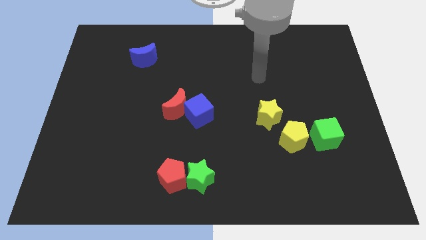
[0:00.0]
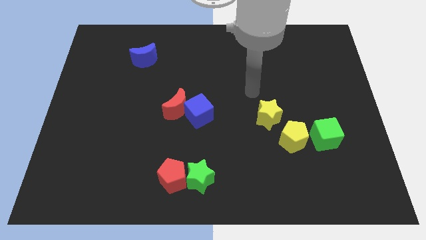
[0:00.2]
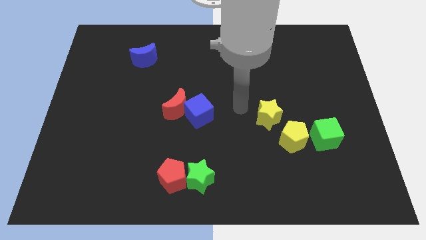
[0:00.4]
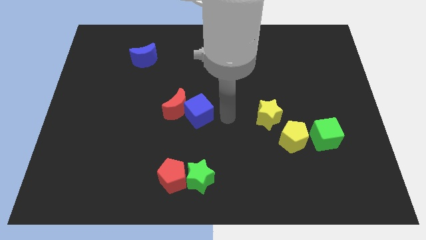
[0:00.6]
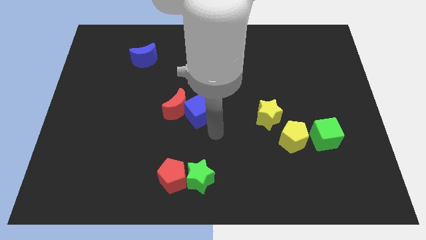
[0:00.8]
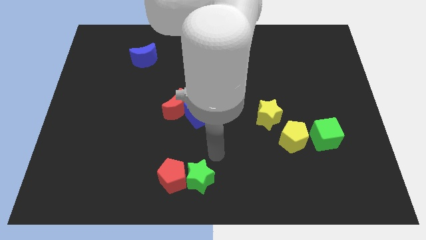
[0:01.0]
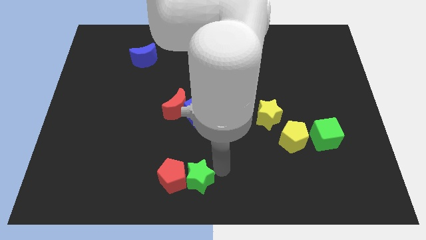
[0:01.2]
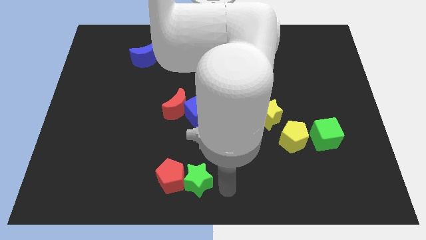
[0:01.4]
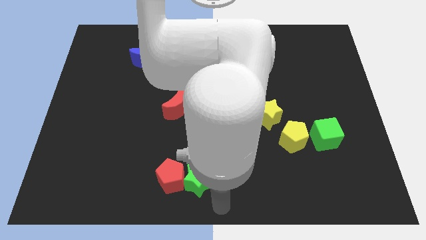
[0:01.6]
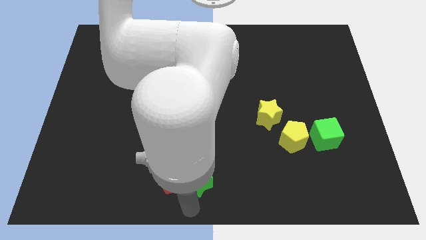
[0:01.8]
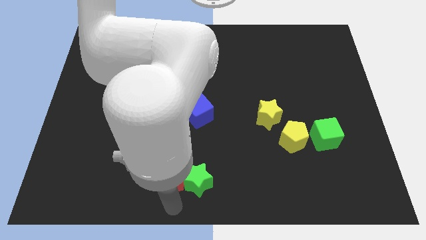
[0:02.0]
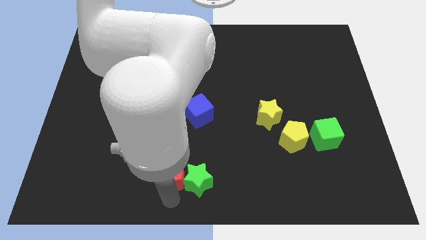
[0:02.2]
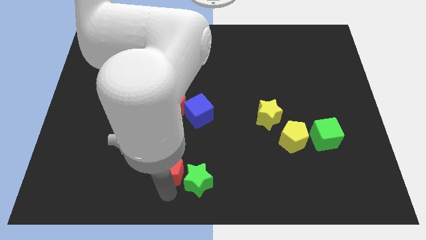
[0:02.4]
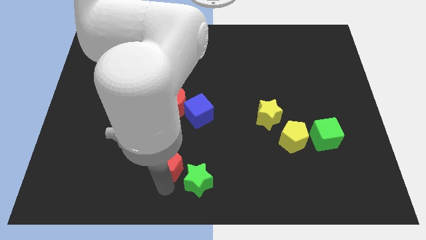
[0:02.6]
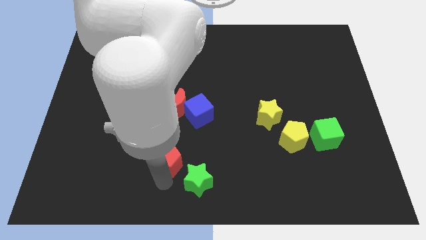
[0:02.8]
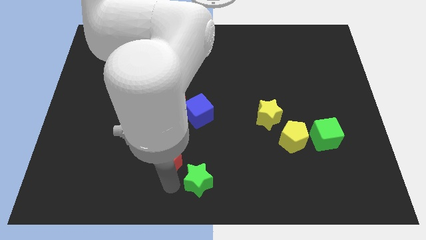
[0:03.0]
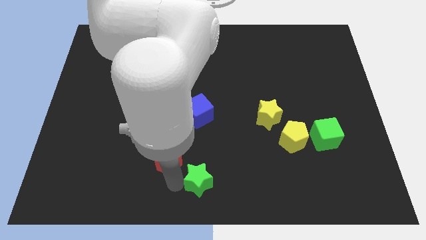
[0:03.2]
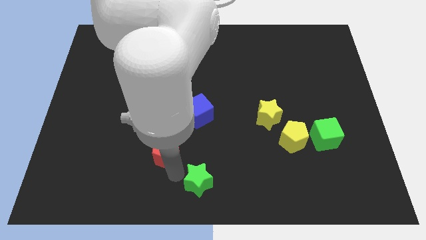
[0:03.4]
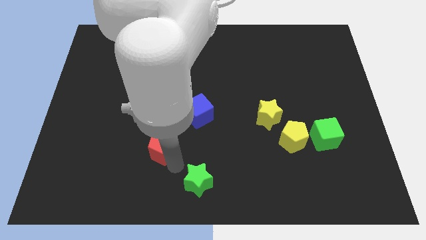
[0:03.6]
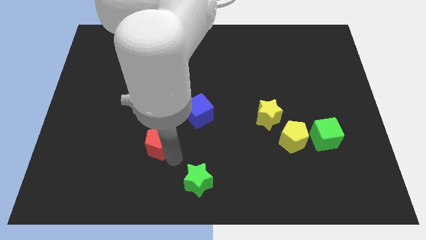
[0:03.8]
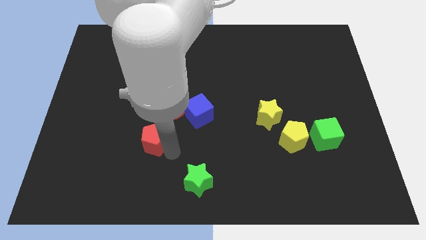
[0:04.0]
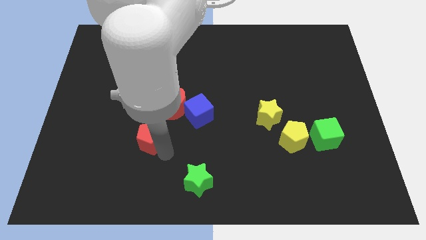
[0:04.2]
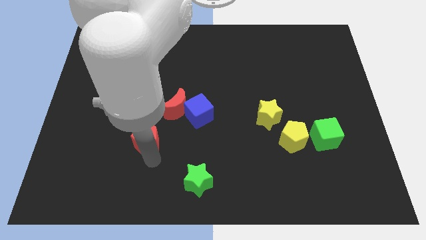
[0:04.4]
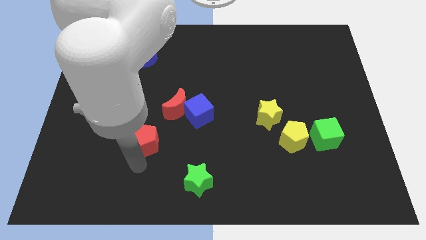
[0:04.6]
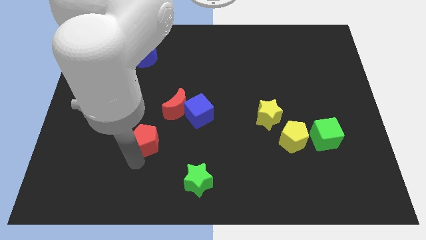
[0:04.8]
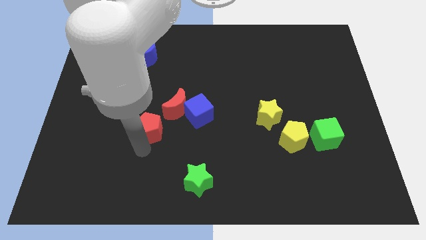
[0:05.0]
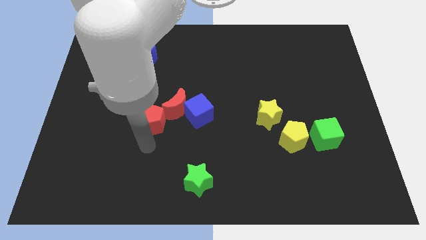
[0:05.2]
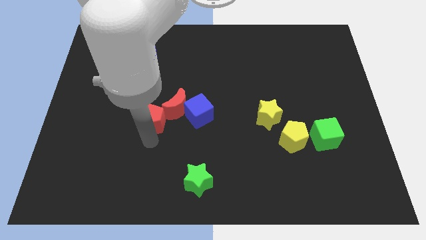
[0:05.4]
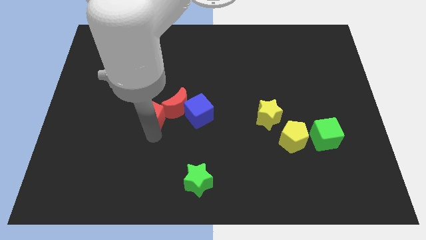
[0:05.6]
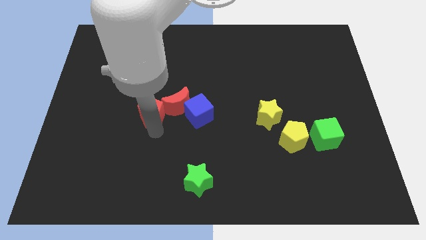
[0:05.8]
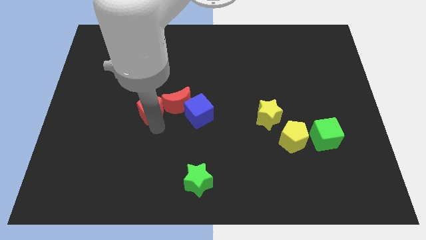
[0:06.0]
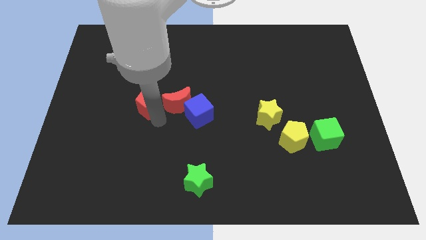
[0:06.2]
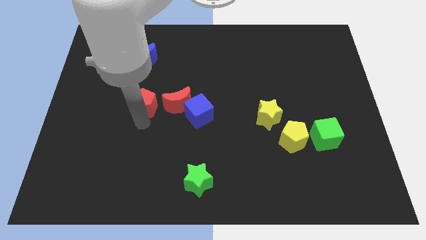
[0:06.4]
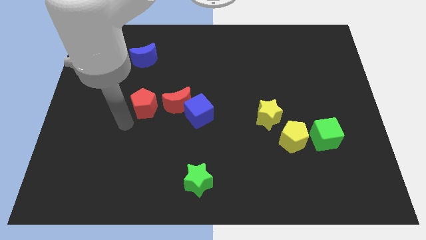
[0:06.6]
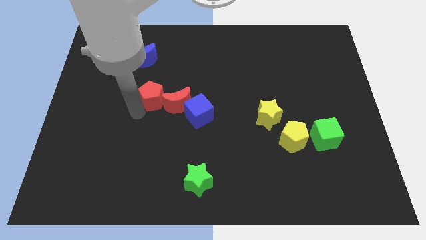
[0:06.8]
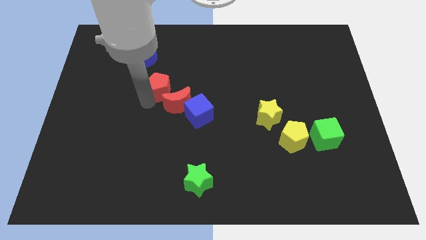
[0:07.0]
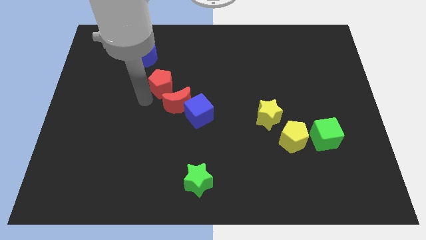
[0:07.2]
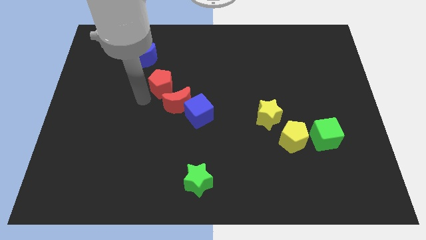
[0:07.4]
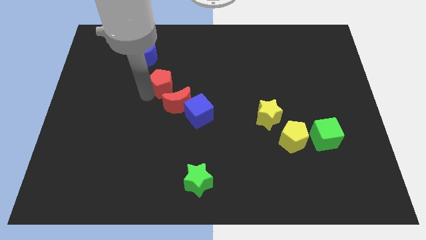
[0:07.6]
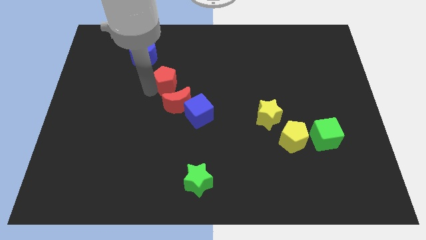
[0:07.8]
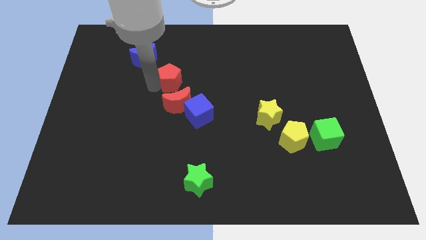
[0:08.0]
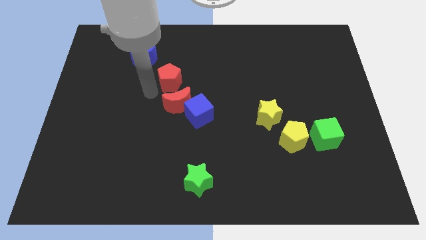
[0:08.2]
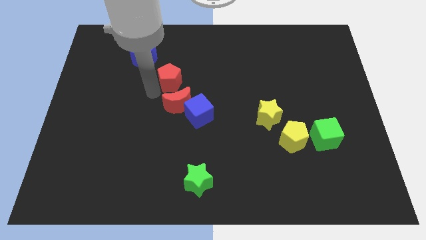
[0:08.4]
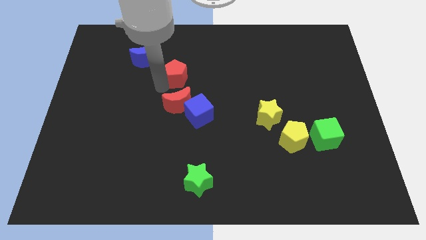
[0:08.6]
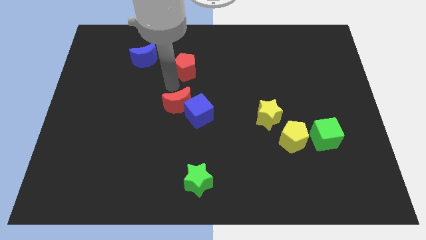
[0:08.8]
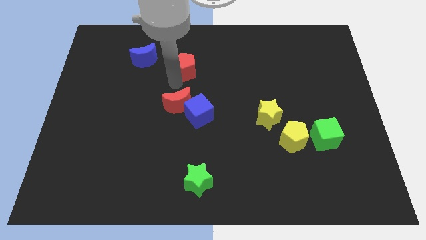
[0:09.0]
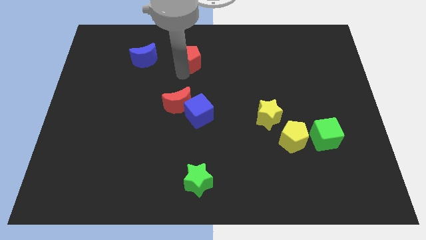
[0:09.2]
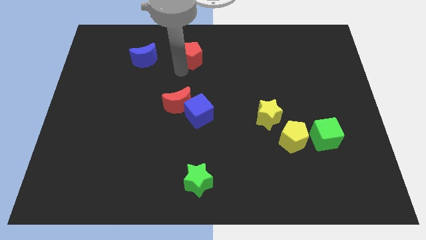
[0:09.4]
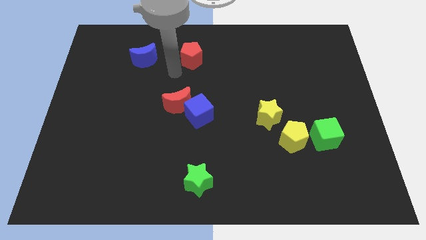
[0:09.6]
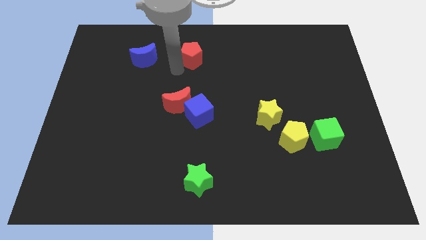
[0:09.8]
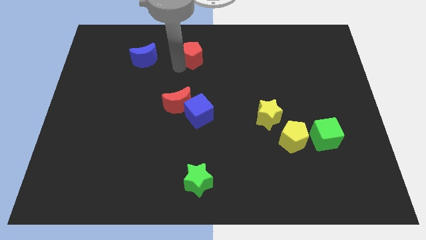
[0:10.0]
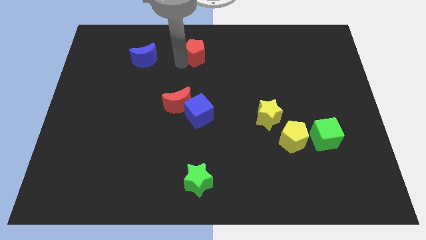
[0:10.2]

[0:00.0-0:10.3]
put the red pentagon to the top side

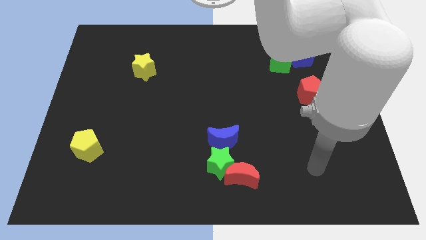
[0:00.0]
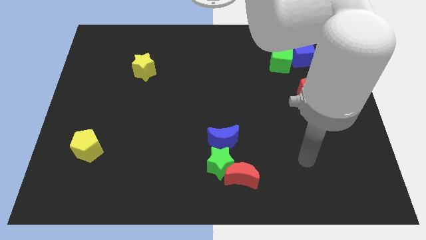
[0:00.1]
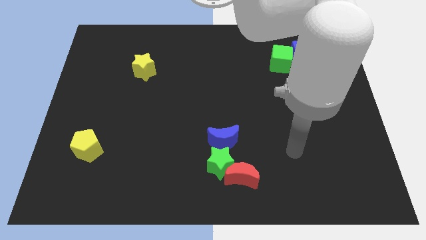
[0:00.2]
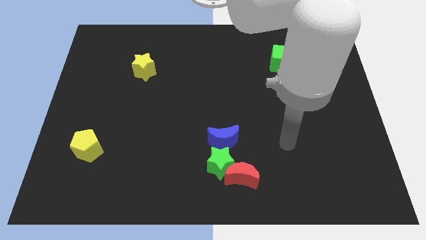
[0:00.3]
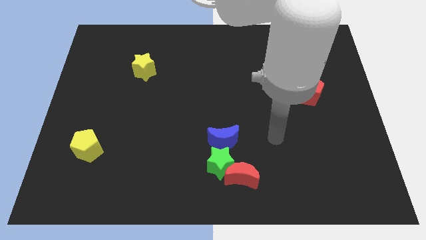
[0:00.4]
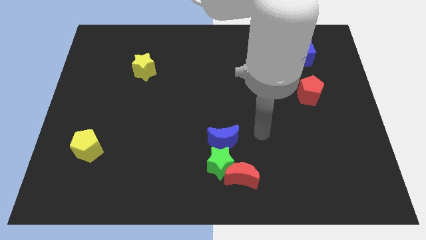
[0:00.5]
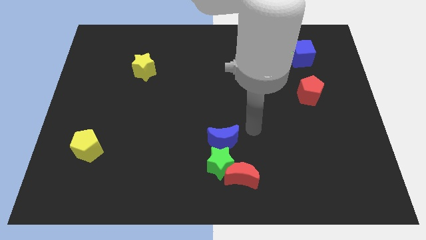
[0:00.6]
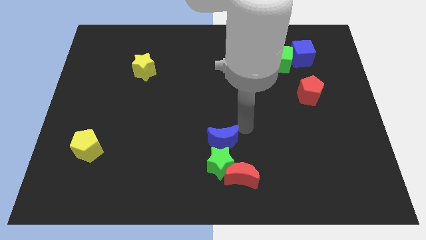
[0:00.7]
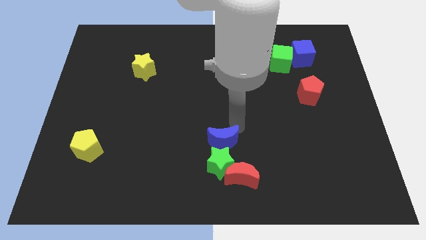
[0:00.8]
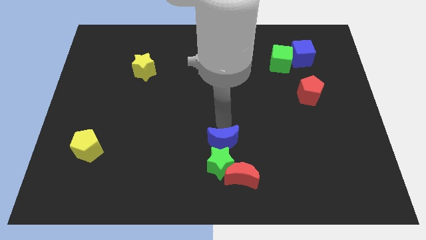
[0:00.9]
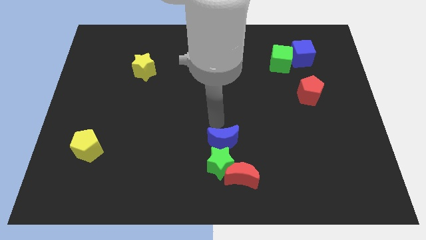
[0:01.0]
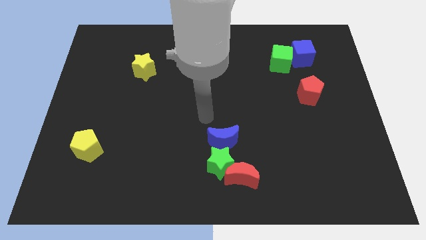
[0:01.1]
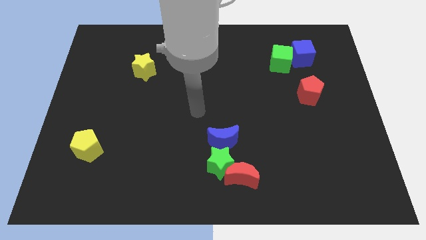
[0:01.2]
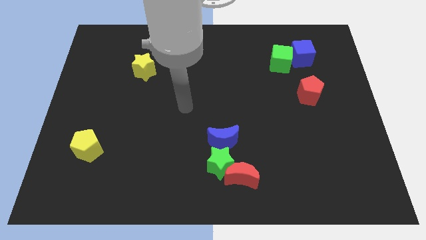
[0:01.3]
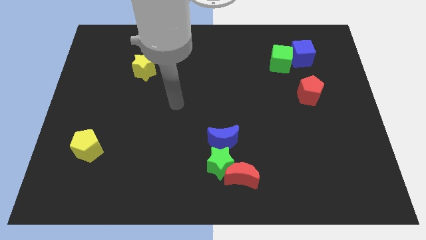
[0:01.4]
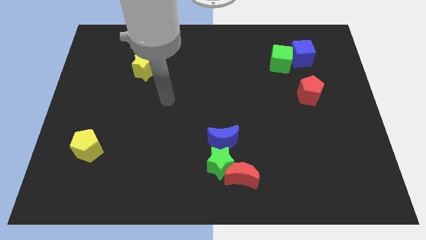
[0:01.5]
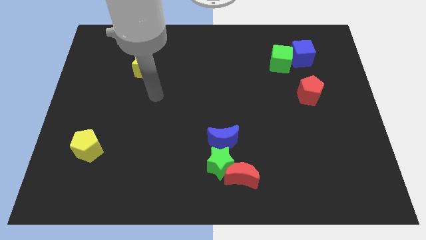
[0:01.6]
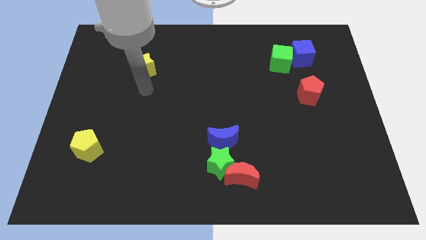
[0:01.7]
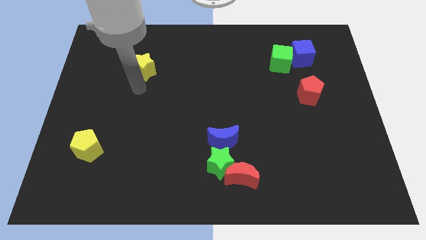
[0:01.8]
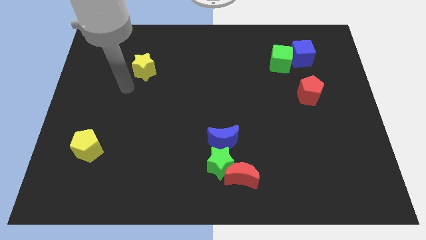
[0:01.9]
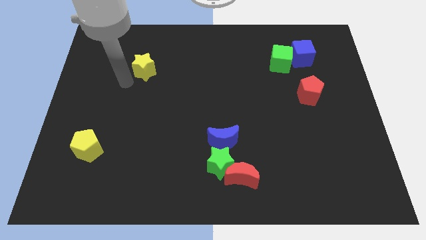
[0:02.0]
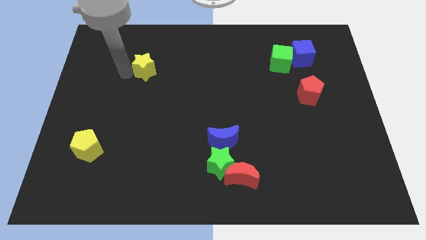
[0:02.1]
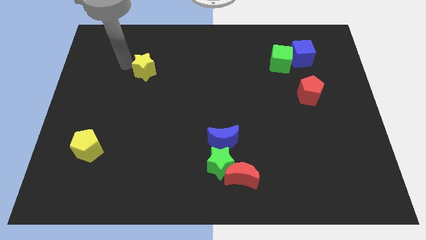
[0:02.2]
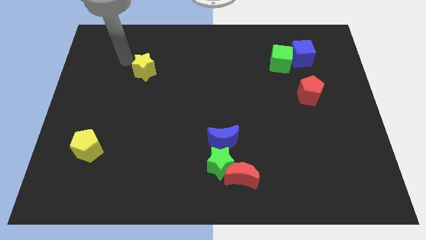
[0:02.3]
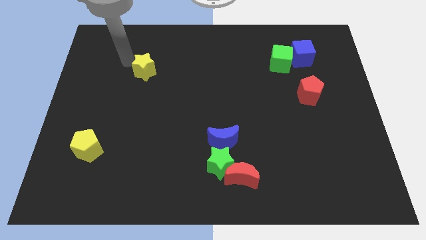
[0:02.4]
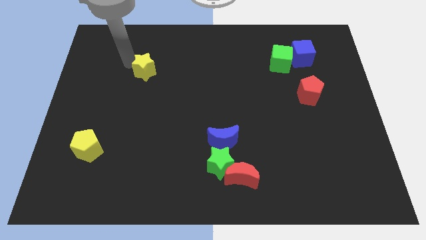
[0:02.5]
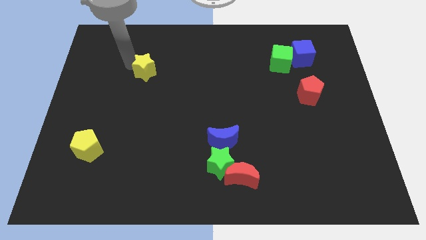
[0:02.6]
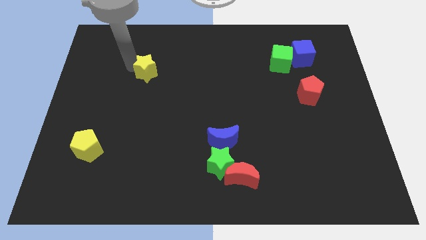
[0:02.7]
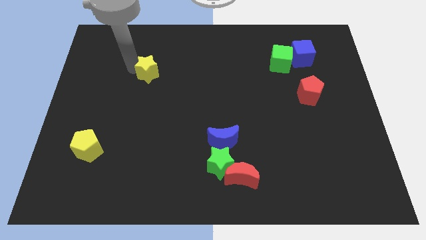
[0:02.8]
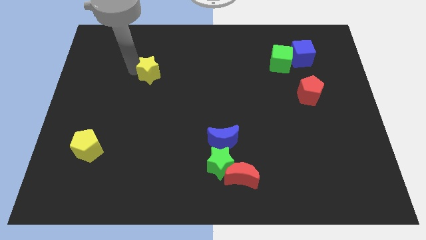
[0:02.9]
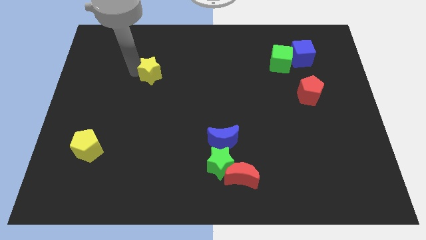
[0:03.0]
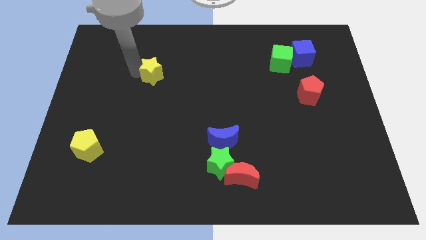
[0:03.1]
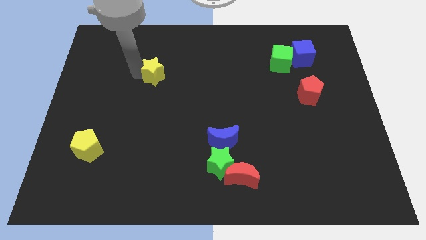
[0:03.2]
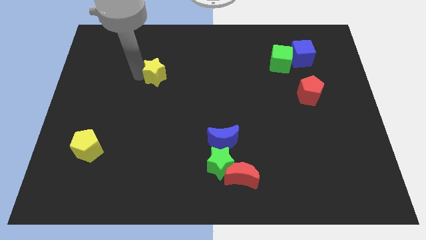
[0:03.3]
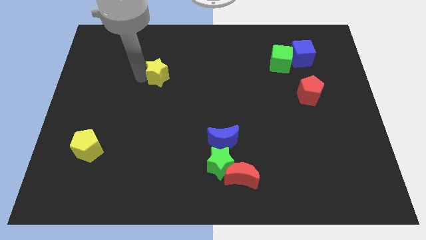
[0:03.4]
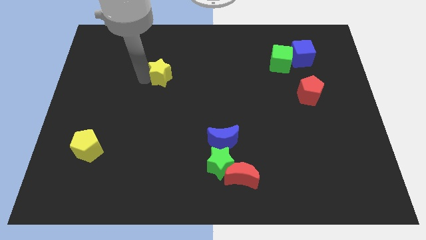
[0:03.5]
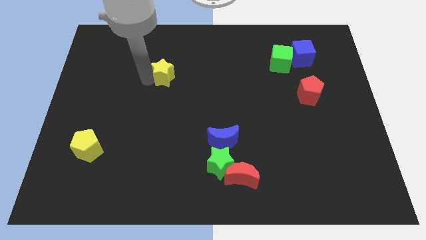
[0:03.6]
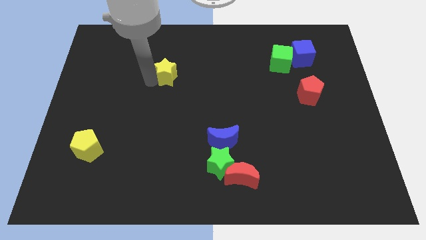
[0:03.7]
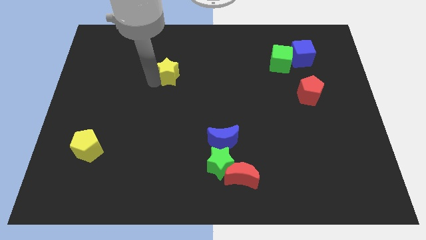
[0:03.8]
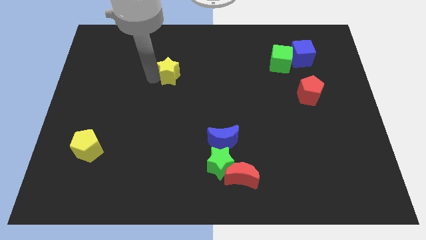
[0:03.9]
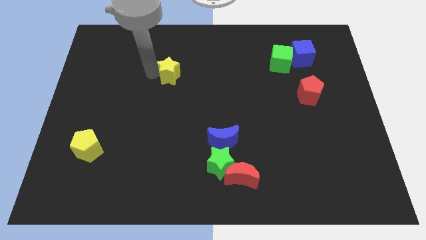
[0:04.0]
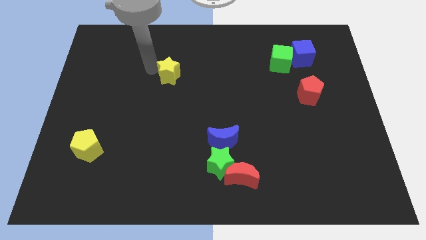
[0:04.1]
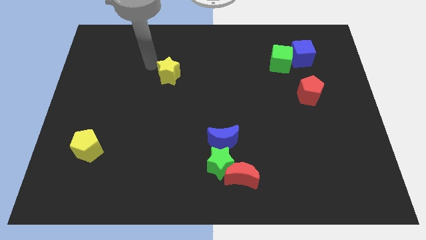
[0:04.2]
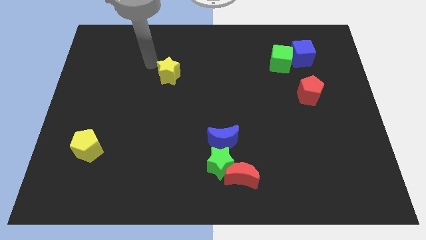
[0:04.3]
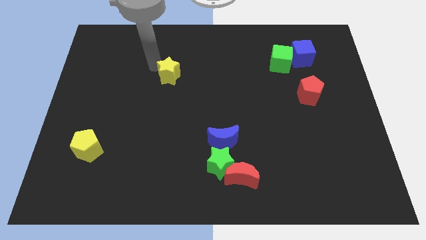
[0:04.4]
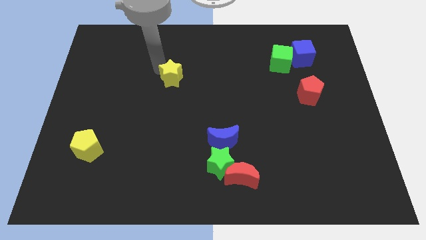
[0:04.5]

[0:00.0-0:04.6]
slide the yellow star to the middle of the board
